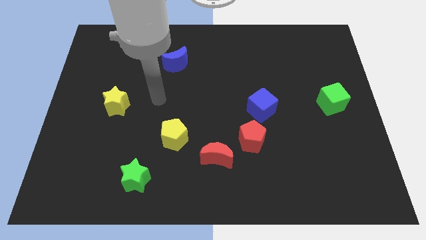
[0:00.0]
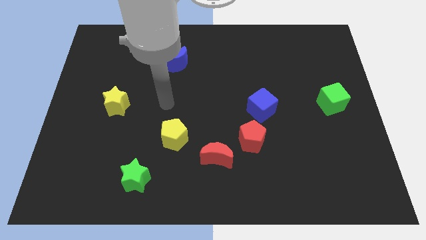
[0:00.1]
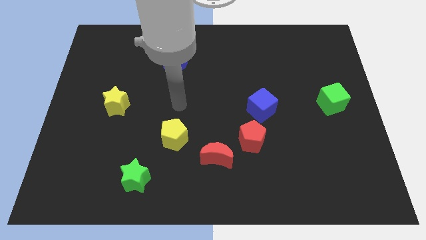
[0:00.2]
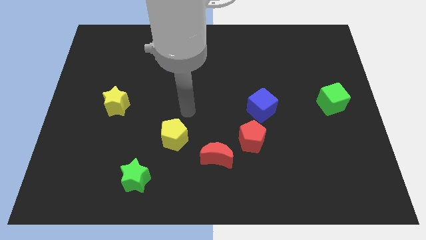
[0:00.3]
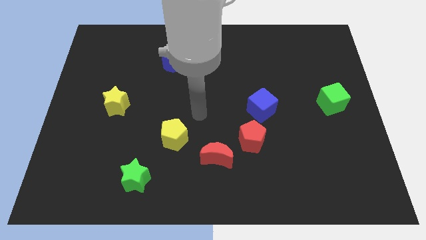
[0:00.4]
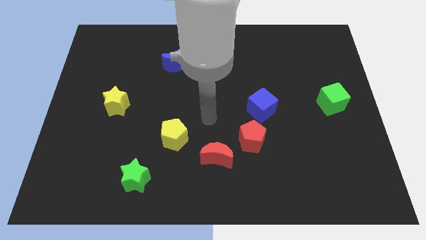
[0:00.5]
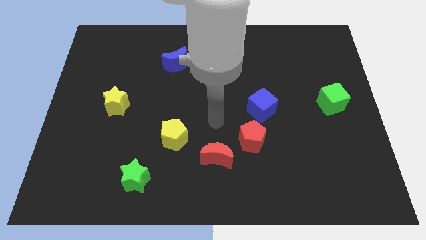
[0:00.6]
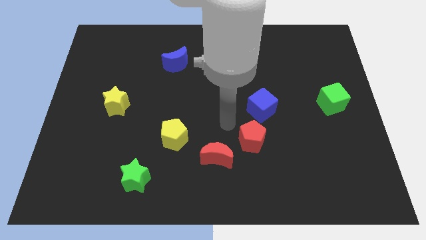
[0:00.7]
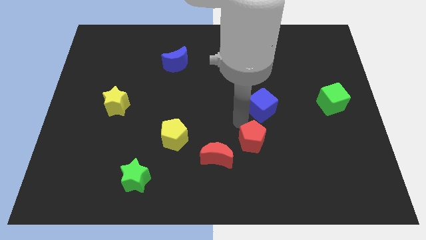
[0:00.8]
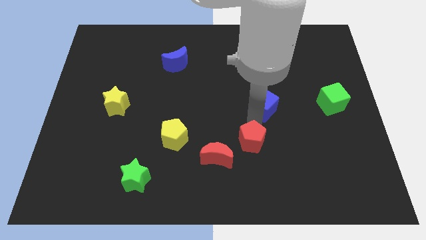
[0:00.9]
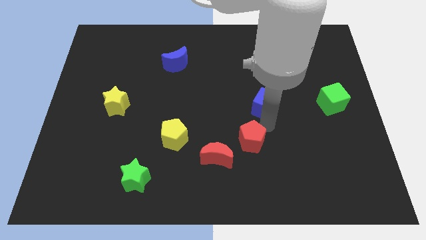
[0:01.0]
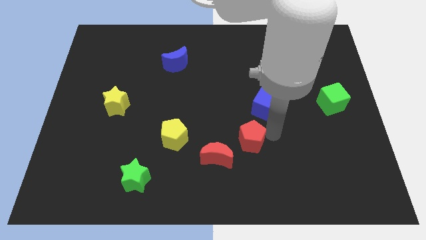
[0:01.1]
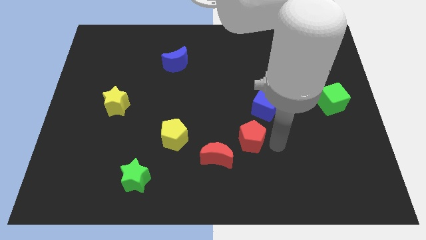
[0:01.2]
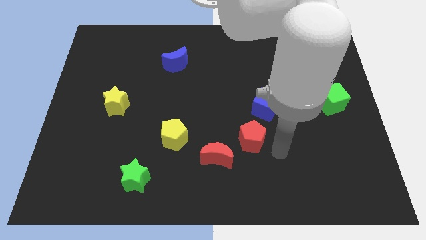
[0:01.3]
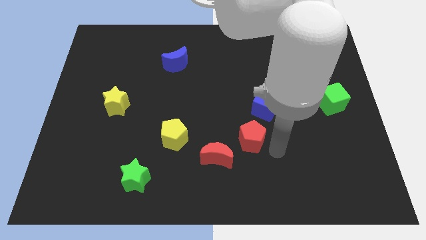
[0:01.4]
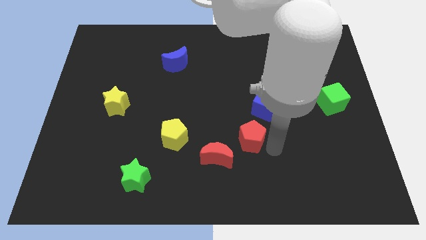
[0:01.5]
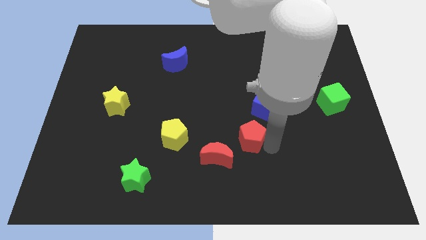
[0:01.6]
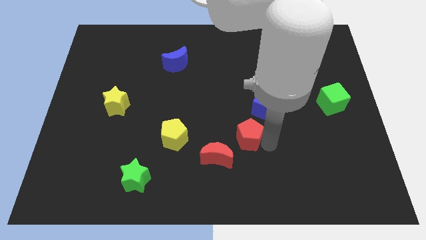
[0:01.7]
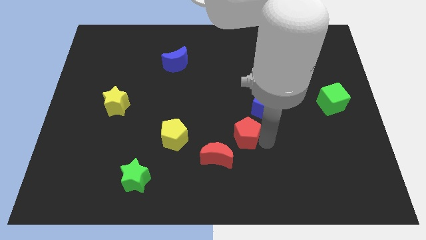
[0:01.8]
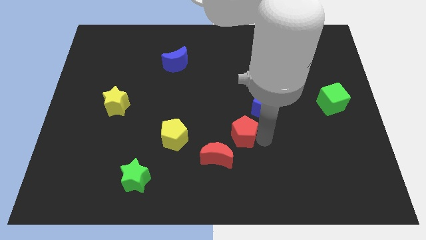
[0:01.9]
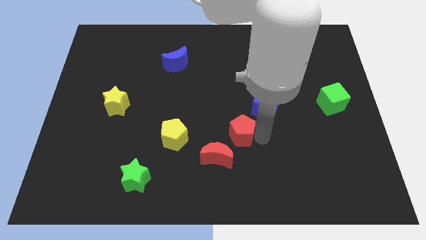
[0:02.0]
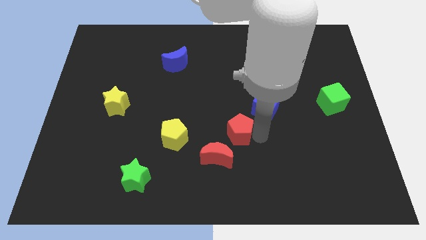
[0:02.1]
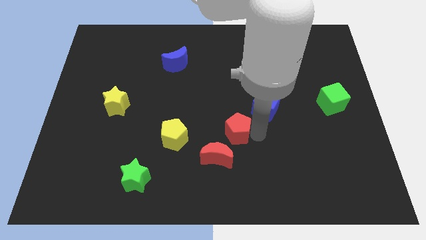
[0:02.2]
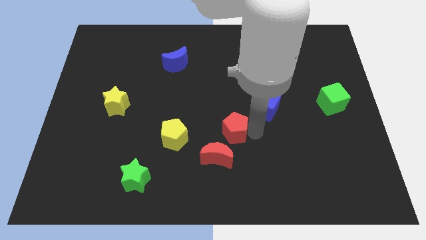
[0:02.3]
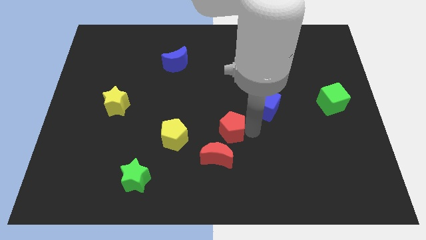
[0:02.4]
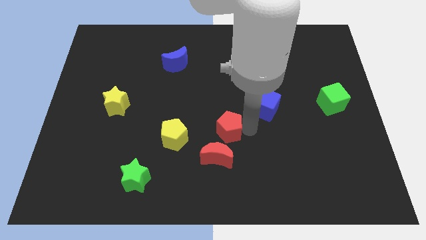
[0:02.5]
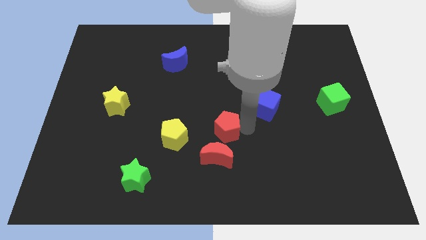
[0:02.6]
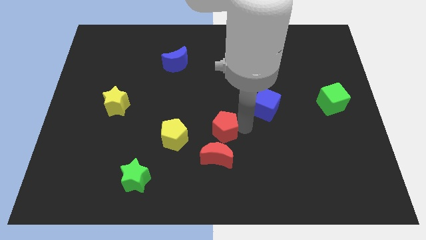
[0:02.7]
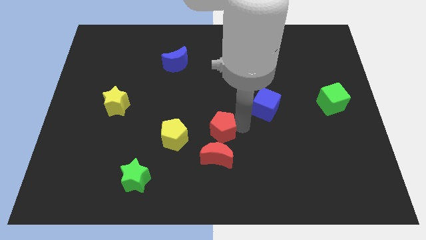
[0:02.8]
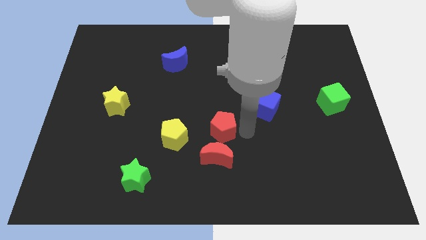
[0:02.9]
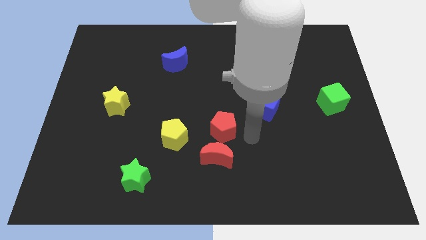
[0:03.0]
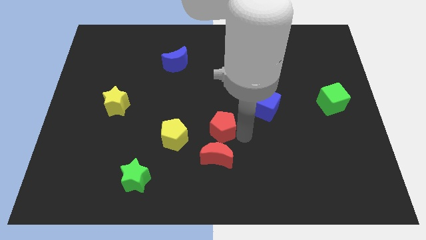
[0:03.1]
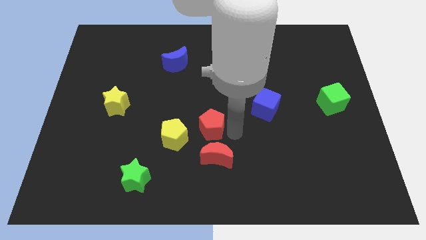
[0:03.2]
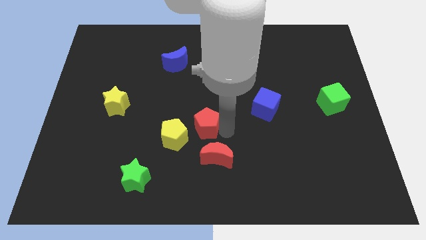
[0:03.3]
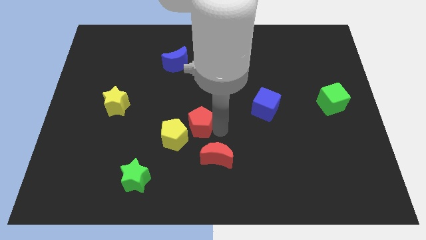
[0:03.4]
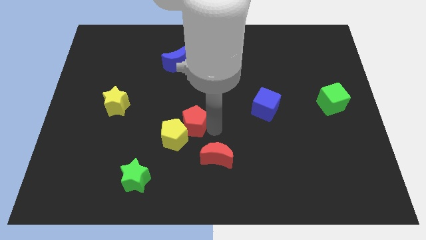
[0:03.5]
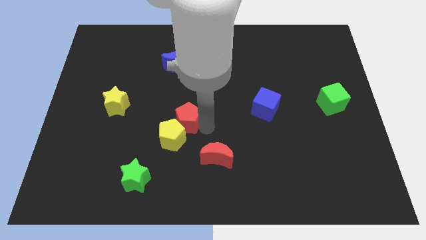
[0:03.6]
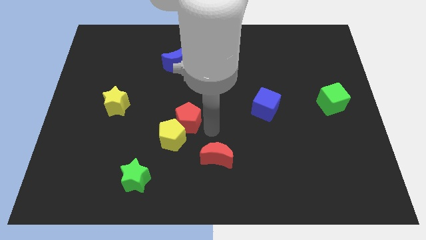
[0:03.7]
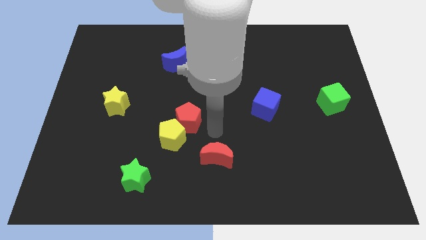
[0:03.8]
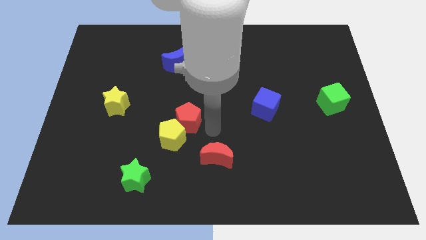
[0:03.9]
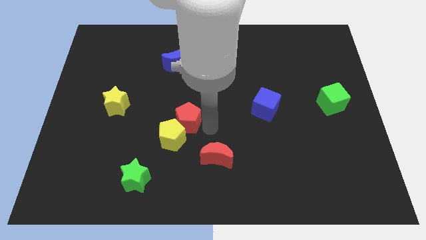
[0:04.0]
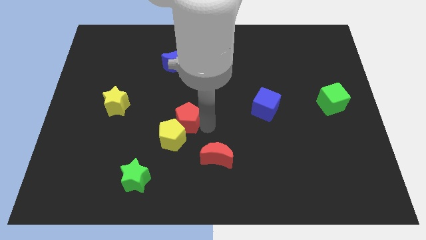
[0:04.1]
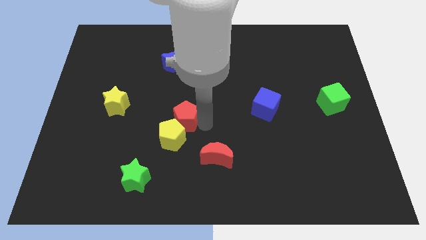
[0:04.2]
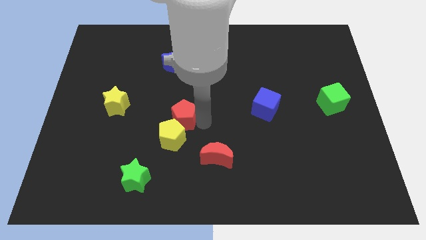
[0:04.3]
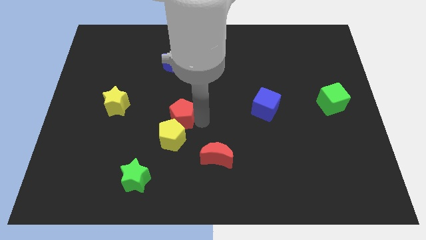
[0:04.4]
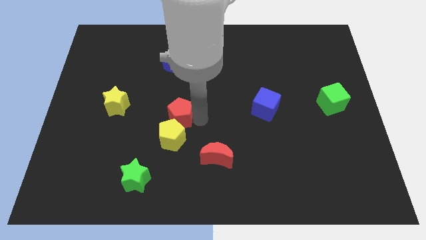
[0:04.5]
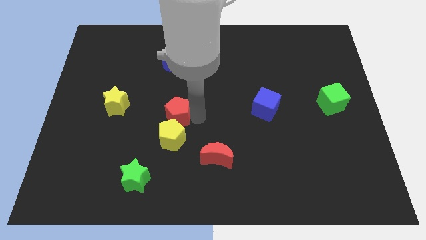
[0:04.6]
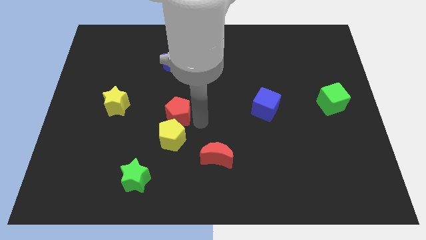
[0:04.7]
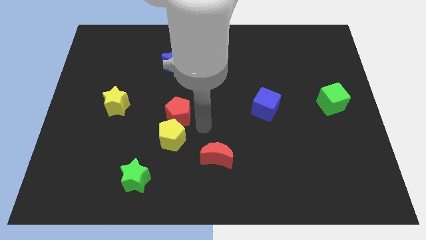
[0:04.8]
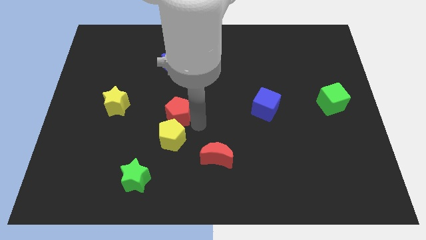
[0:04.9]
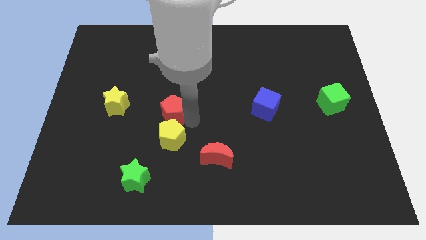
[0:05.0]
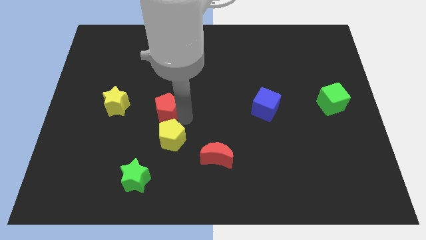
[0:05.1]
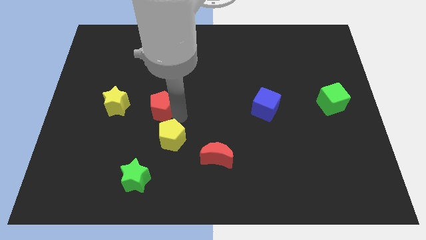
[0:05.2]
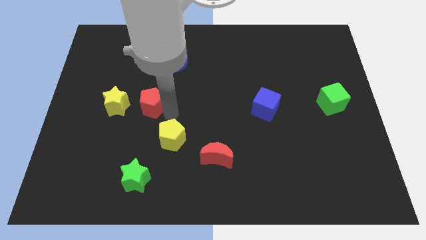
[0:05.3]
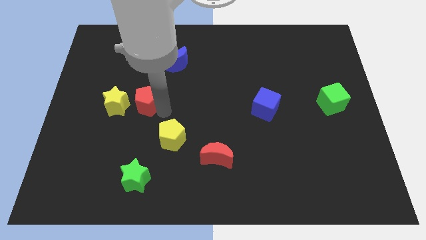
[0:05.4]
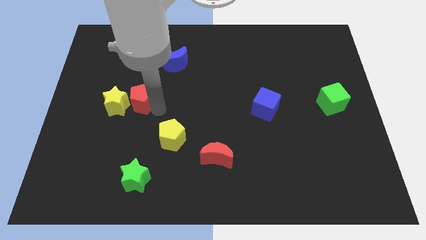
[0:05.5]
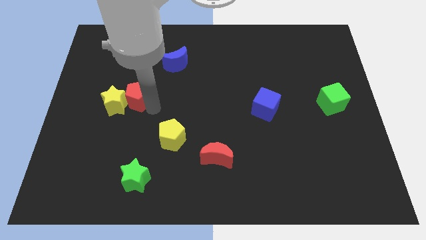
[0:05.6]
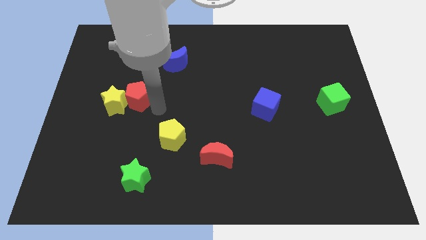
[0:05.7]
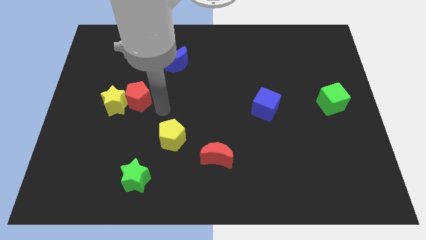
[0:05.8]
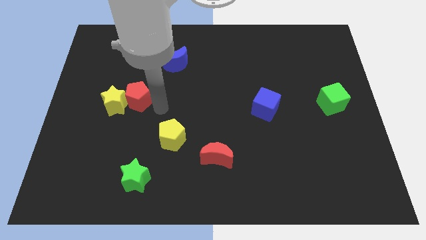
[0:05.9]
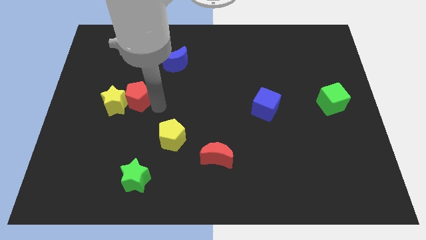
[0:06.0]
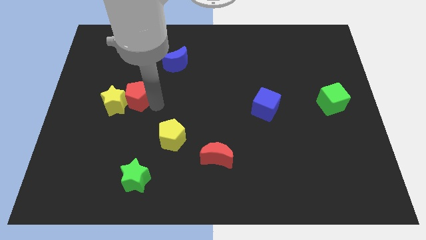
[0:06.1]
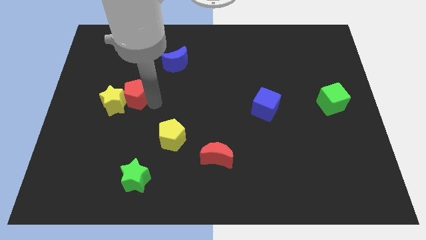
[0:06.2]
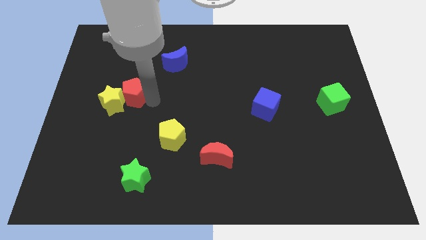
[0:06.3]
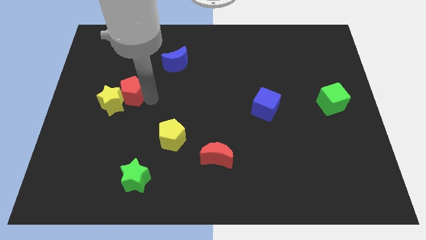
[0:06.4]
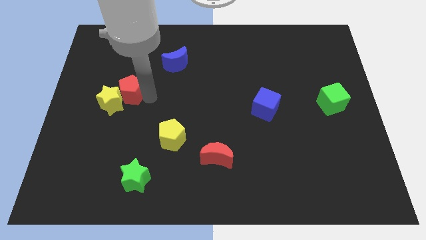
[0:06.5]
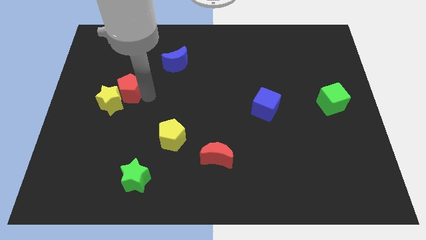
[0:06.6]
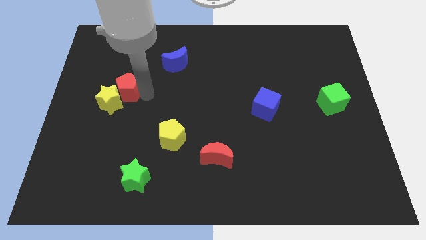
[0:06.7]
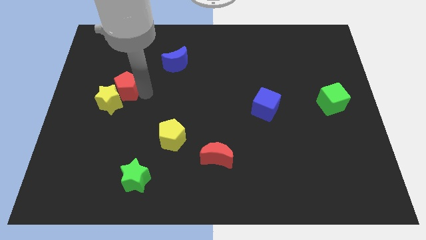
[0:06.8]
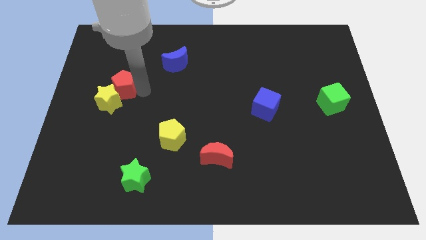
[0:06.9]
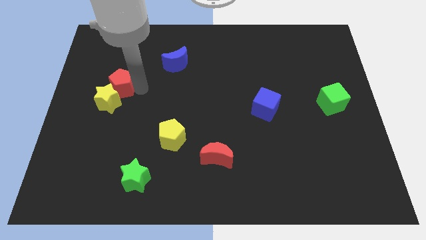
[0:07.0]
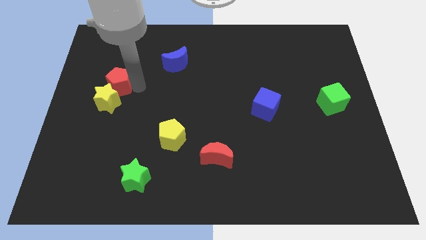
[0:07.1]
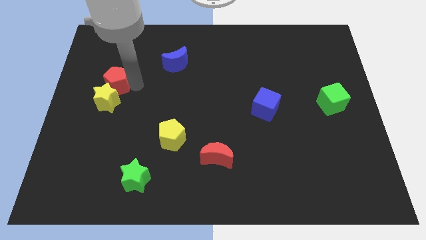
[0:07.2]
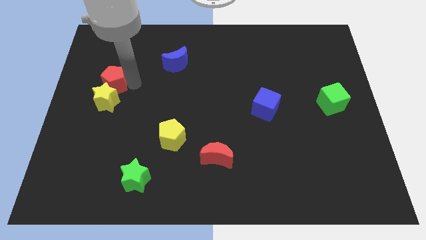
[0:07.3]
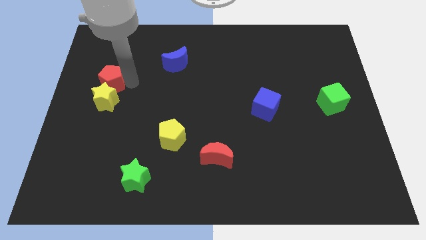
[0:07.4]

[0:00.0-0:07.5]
move the red pentagon to the top left of the yellow star
